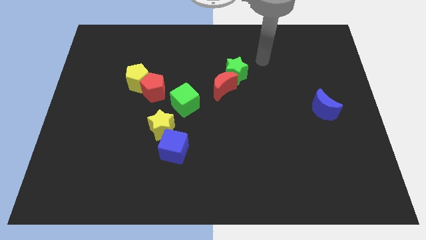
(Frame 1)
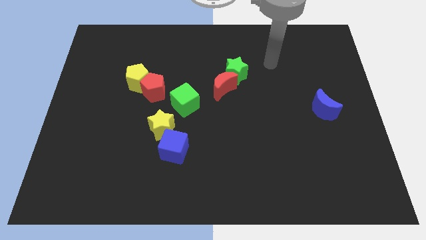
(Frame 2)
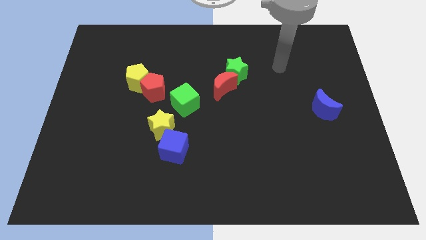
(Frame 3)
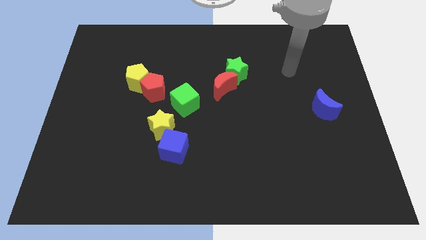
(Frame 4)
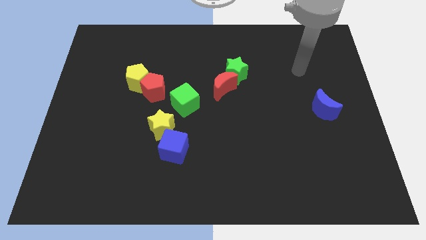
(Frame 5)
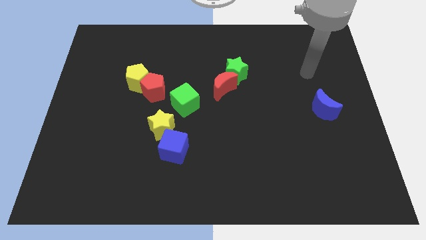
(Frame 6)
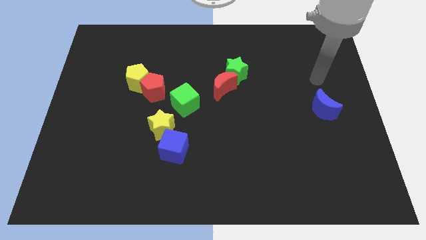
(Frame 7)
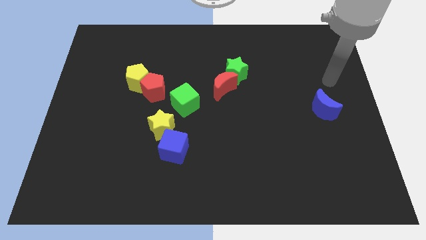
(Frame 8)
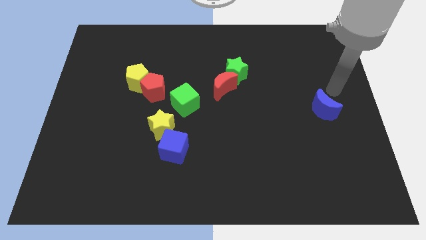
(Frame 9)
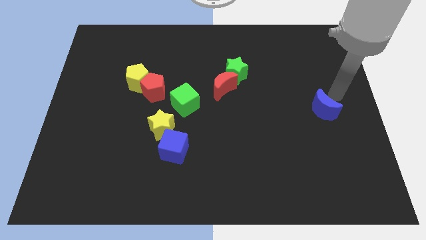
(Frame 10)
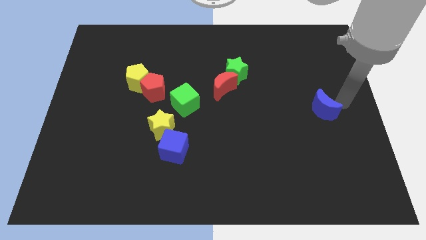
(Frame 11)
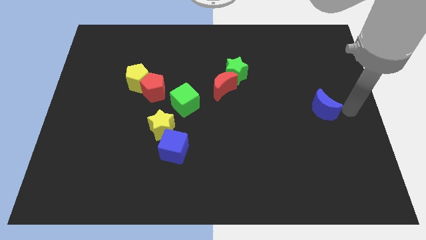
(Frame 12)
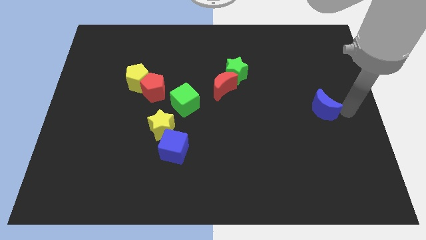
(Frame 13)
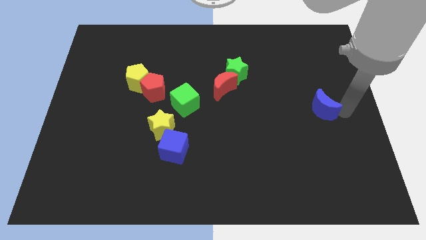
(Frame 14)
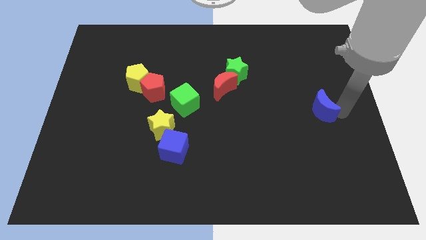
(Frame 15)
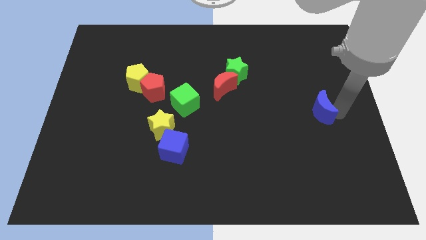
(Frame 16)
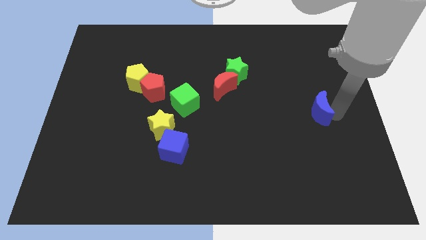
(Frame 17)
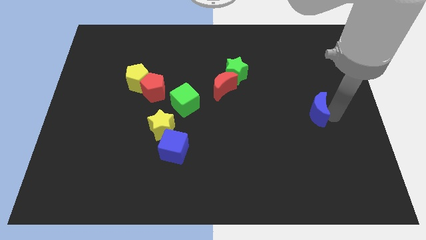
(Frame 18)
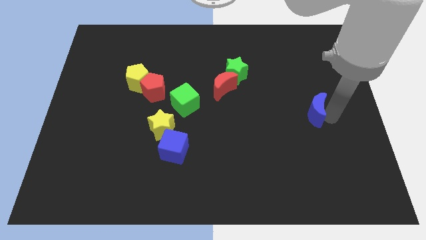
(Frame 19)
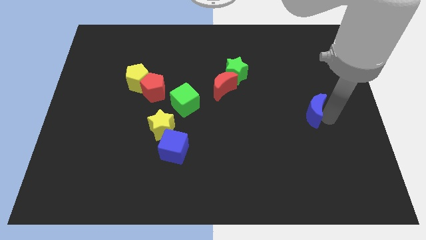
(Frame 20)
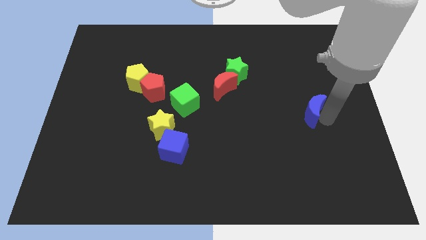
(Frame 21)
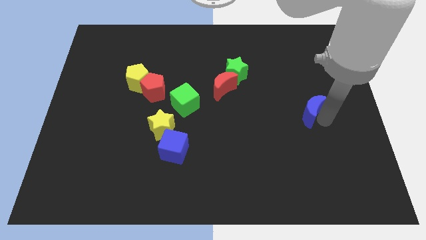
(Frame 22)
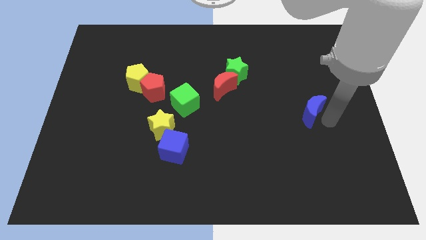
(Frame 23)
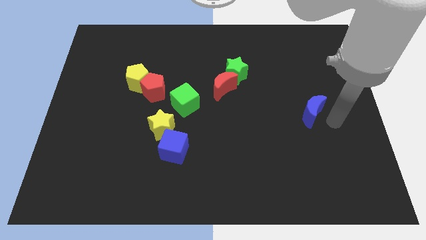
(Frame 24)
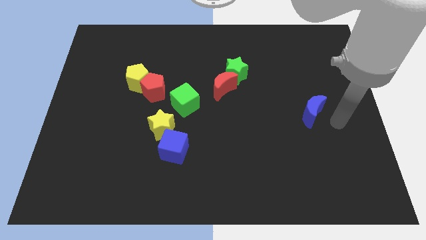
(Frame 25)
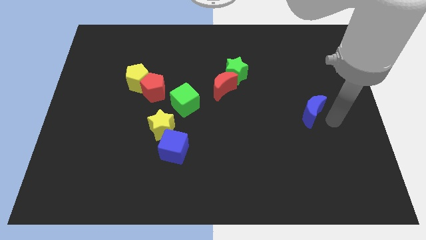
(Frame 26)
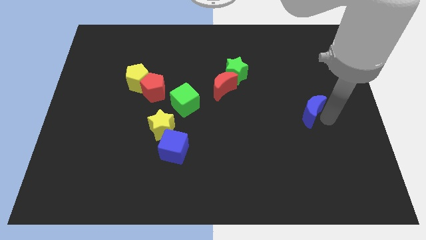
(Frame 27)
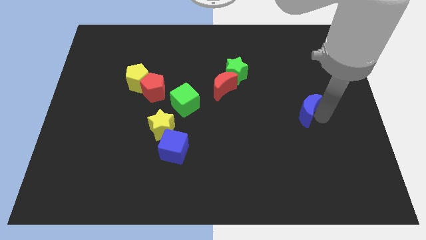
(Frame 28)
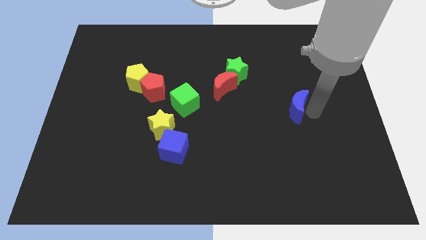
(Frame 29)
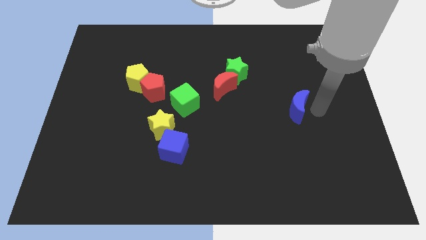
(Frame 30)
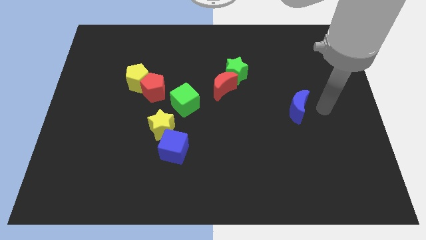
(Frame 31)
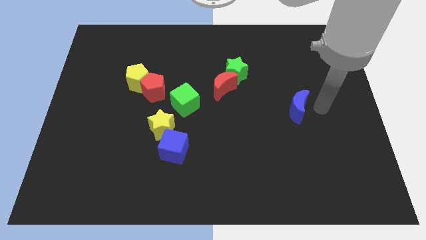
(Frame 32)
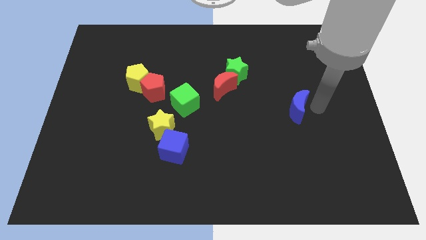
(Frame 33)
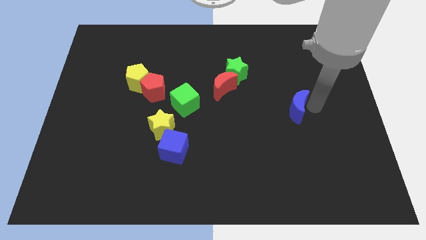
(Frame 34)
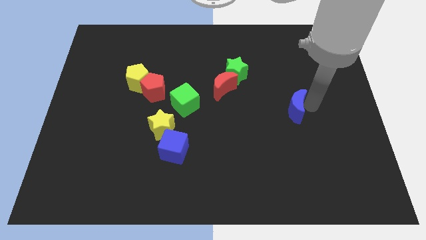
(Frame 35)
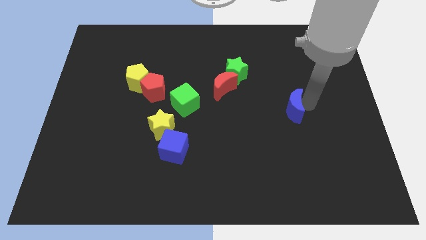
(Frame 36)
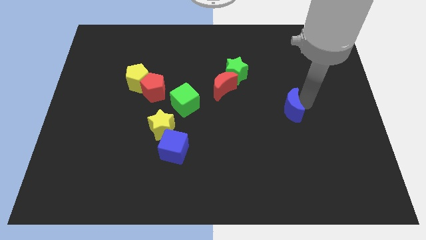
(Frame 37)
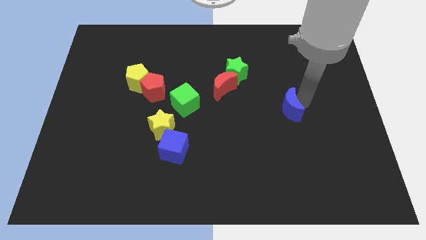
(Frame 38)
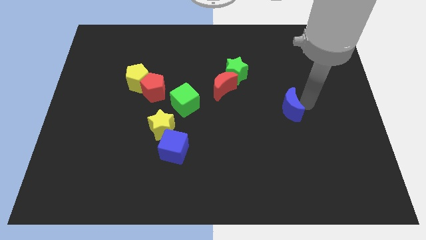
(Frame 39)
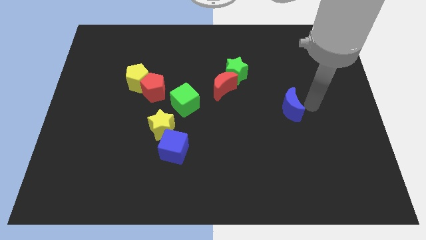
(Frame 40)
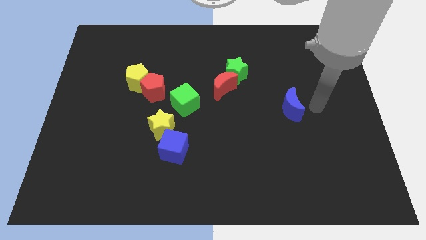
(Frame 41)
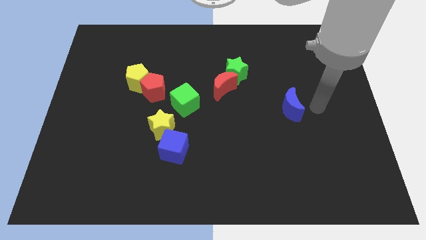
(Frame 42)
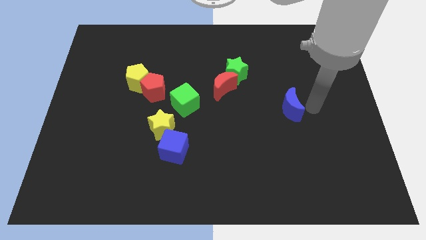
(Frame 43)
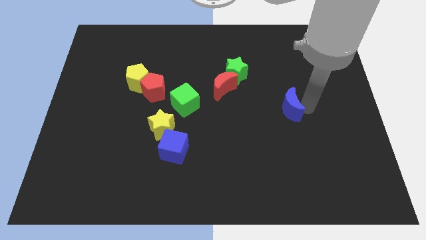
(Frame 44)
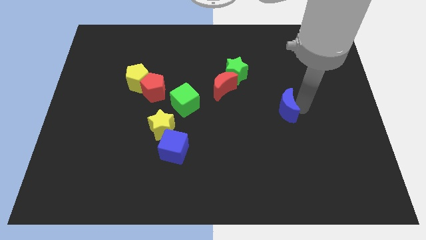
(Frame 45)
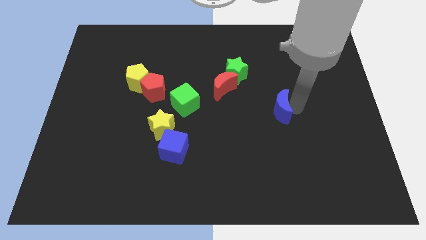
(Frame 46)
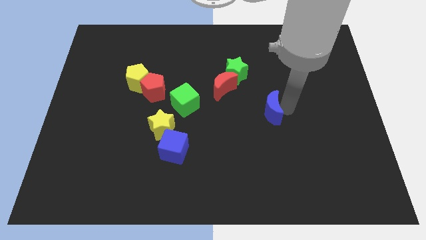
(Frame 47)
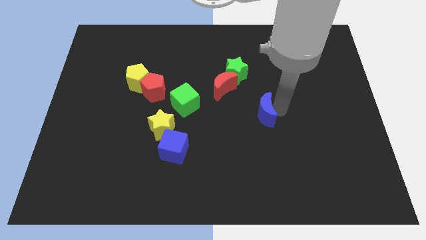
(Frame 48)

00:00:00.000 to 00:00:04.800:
push the blue moon to the center of the board

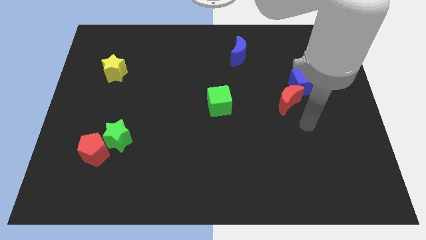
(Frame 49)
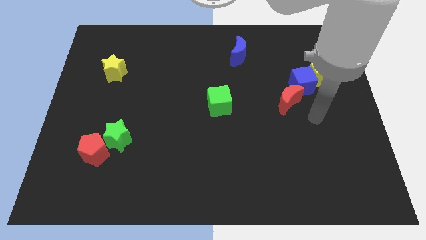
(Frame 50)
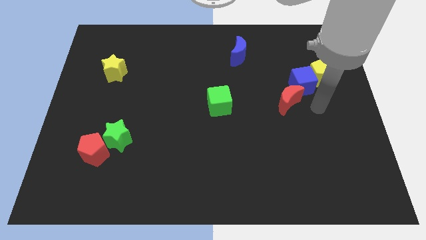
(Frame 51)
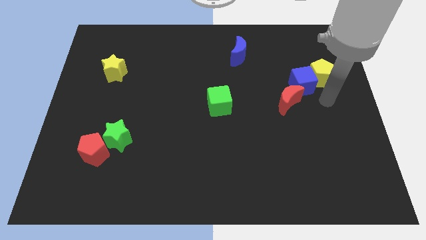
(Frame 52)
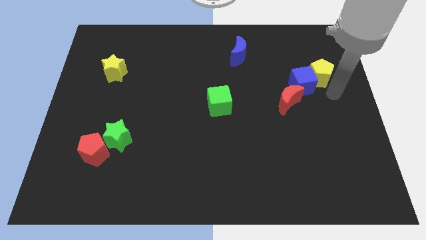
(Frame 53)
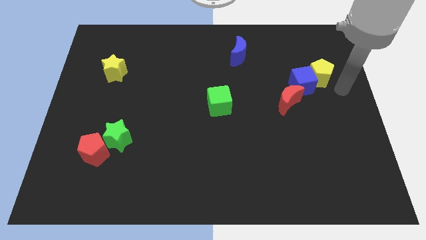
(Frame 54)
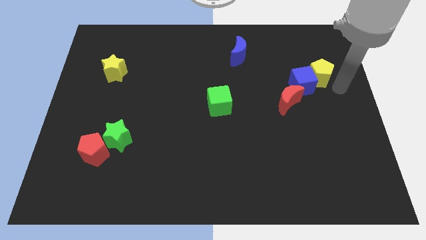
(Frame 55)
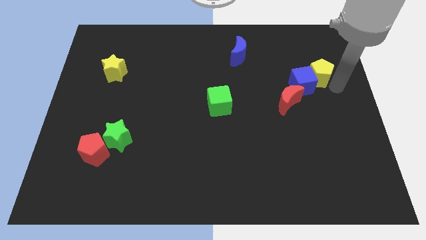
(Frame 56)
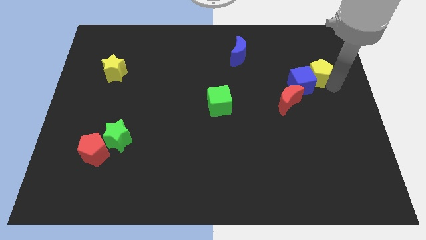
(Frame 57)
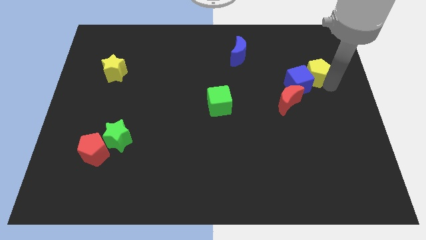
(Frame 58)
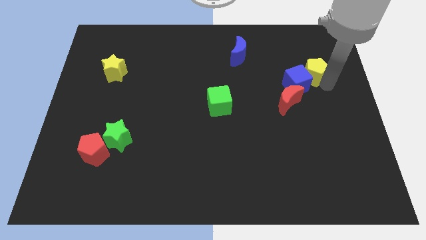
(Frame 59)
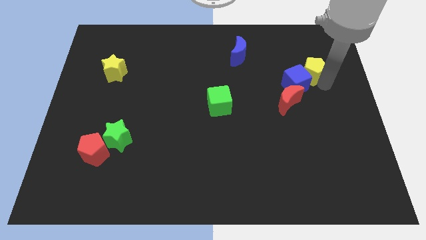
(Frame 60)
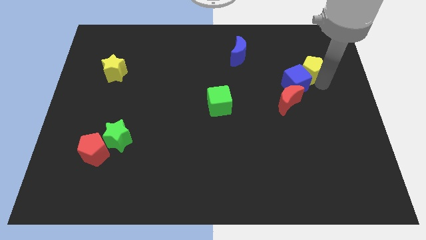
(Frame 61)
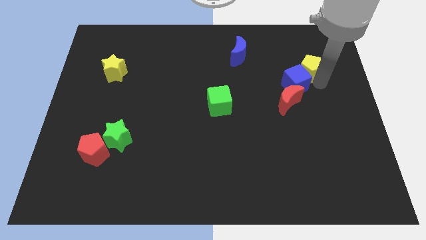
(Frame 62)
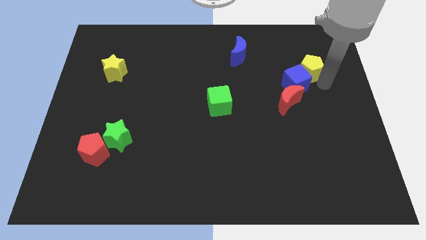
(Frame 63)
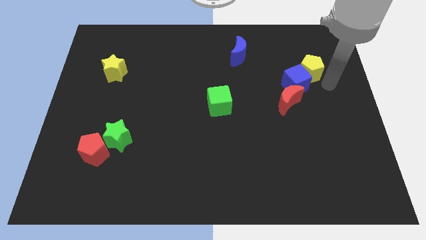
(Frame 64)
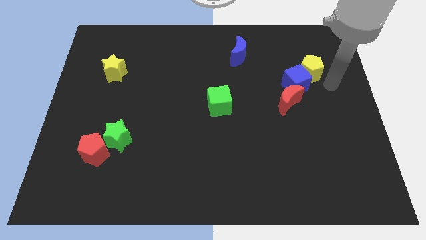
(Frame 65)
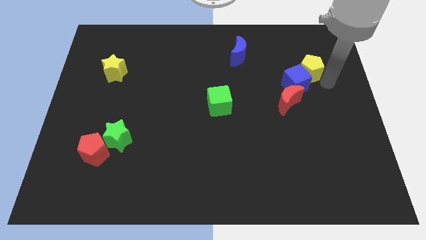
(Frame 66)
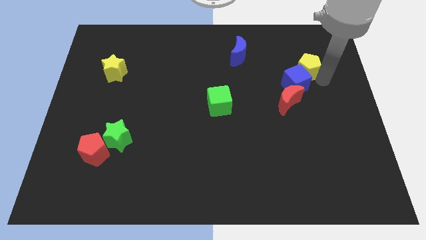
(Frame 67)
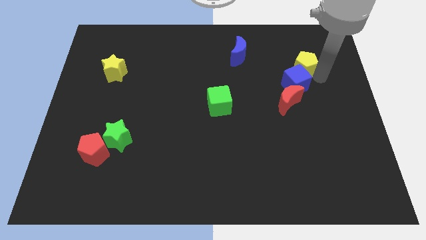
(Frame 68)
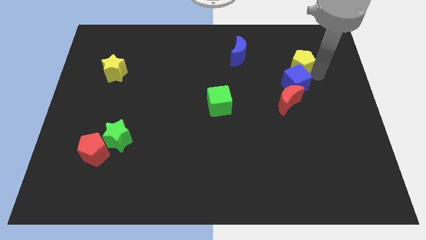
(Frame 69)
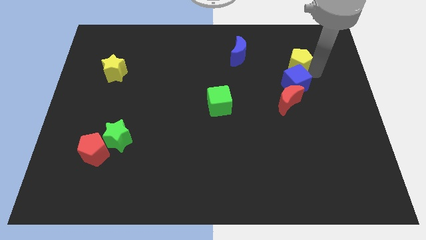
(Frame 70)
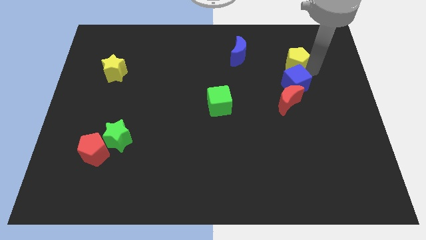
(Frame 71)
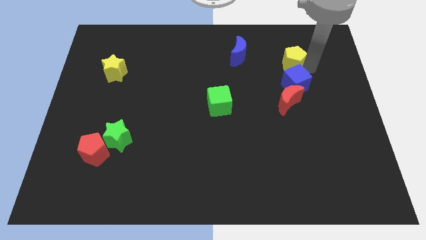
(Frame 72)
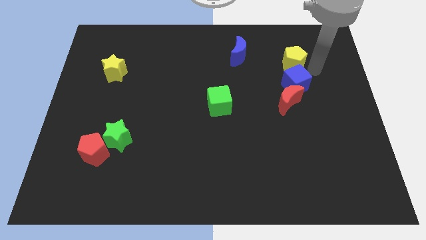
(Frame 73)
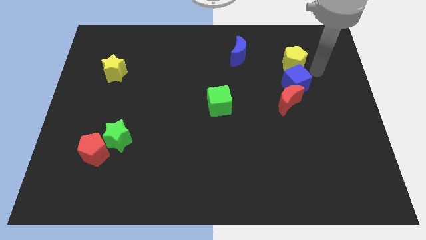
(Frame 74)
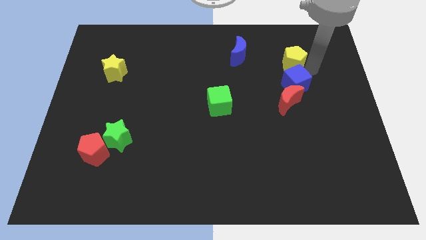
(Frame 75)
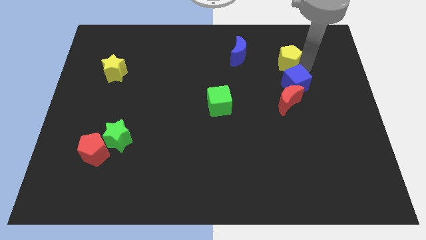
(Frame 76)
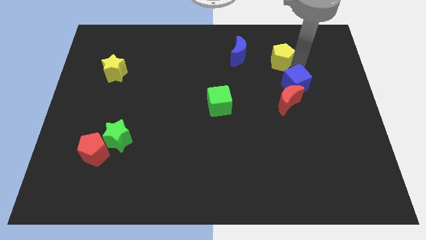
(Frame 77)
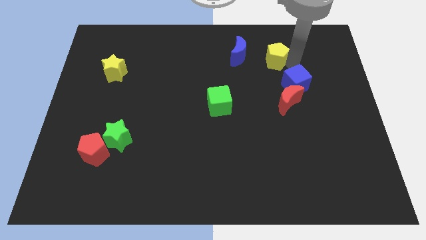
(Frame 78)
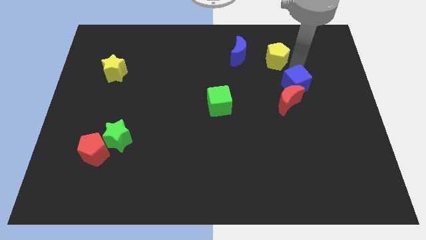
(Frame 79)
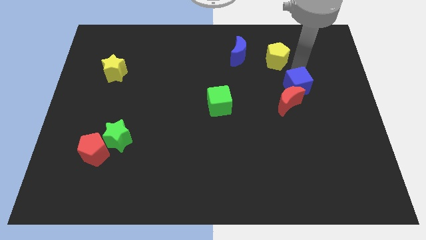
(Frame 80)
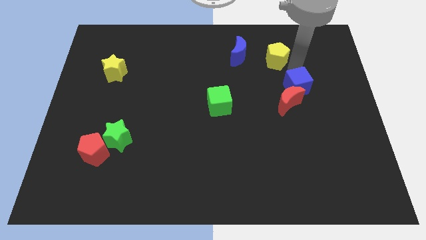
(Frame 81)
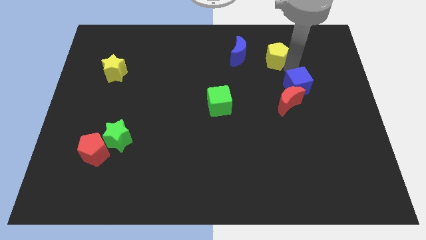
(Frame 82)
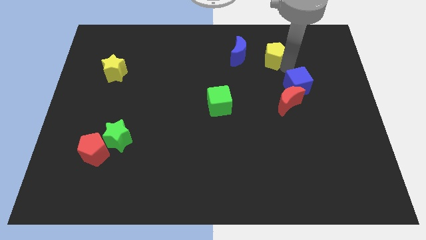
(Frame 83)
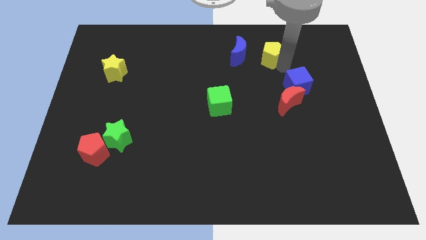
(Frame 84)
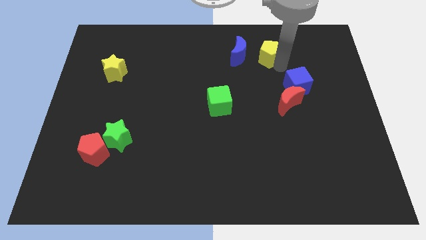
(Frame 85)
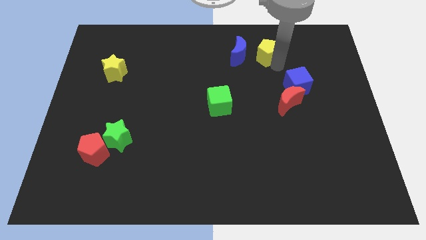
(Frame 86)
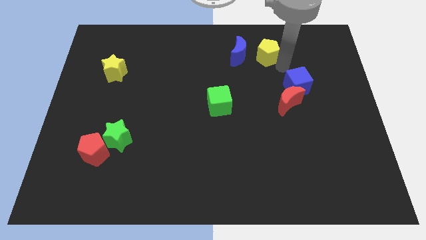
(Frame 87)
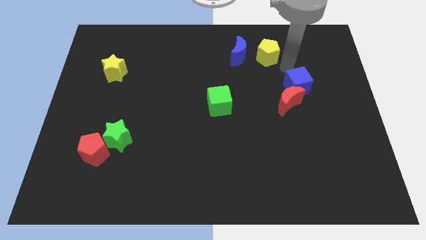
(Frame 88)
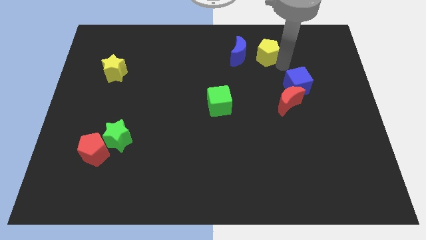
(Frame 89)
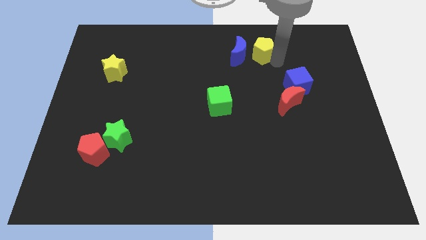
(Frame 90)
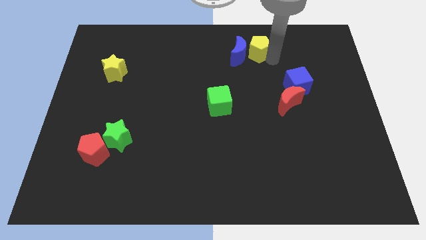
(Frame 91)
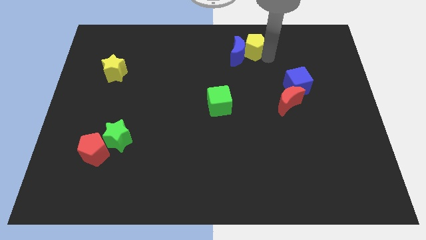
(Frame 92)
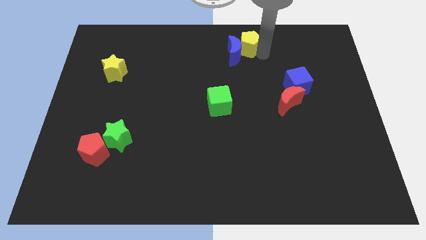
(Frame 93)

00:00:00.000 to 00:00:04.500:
move the yellow pentagon to the top
